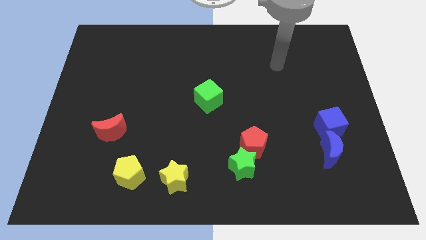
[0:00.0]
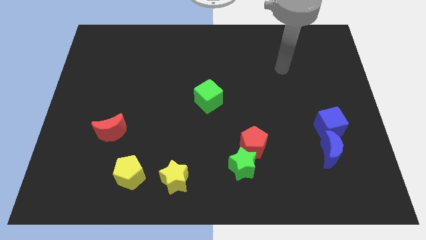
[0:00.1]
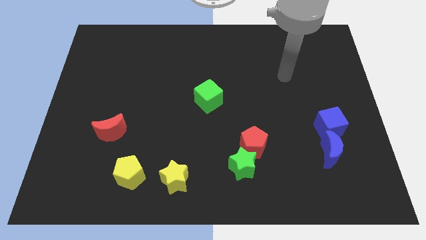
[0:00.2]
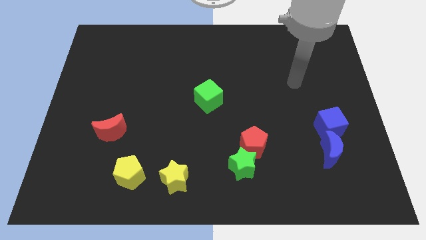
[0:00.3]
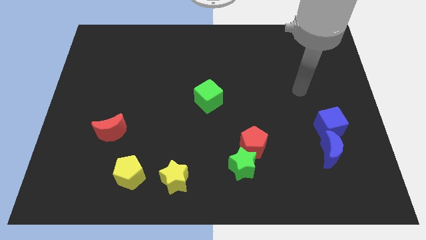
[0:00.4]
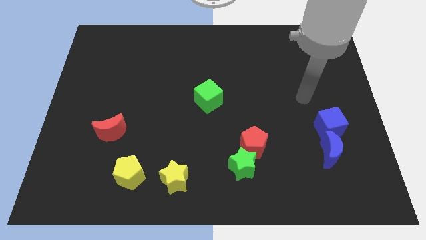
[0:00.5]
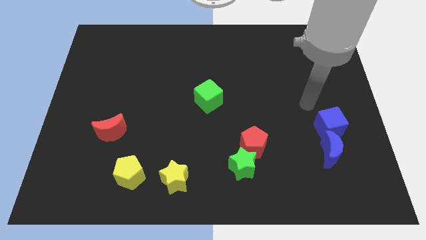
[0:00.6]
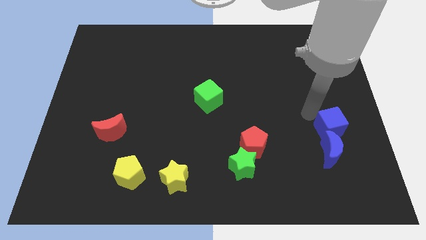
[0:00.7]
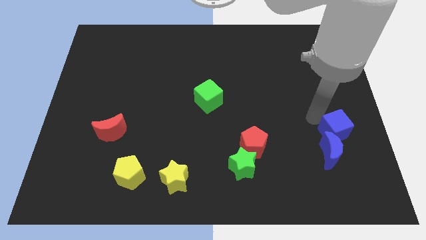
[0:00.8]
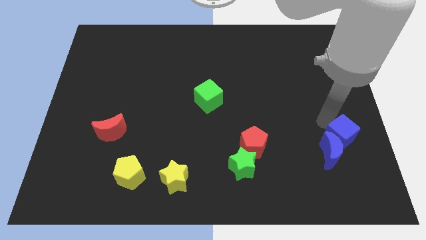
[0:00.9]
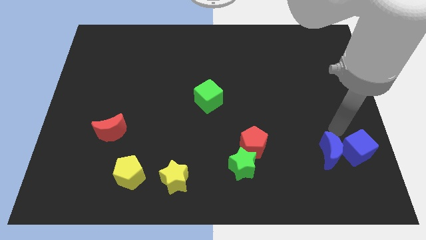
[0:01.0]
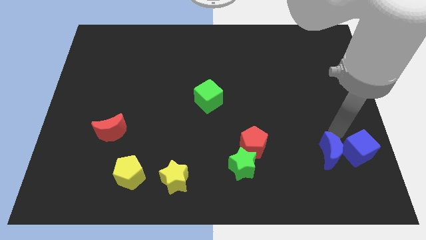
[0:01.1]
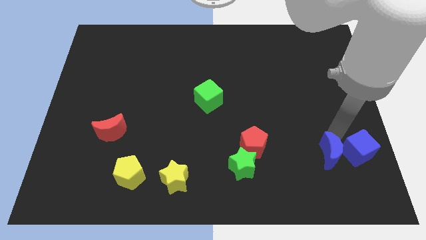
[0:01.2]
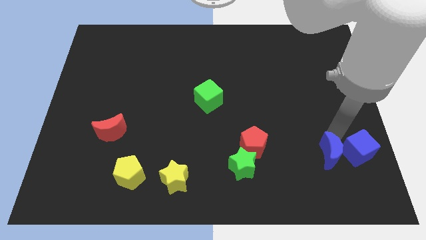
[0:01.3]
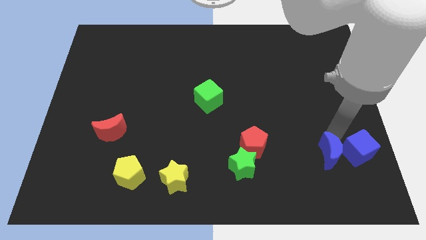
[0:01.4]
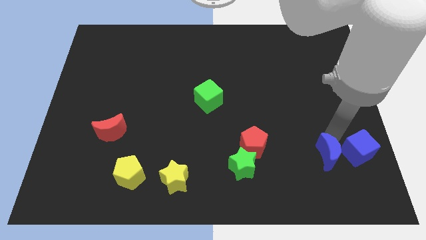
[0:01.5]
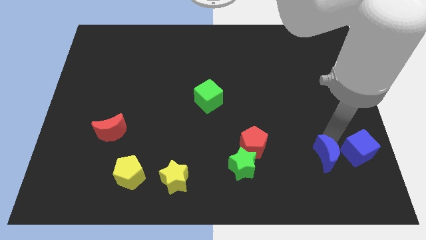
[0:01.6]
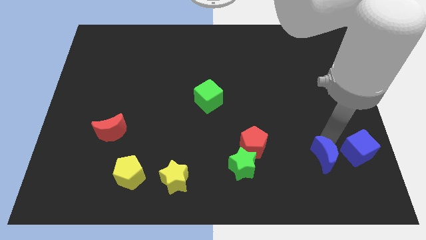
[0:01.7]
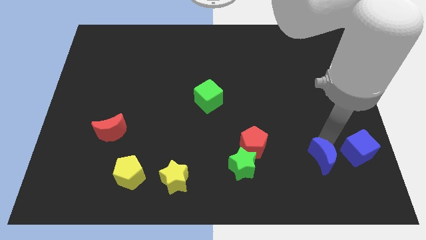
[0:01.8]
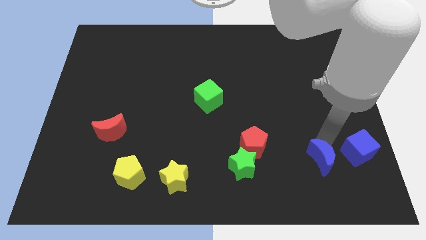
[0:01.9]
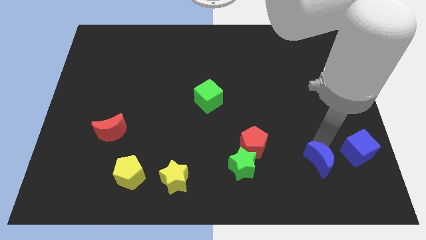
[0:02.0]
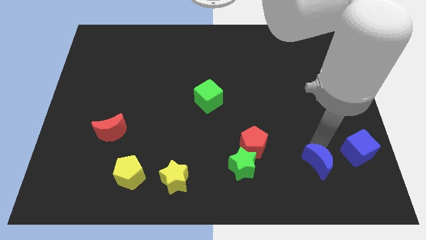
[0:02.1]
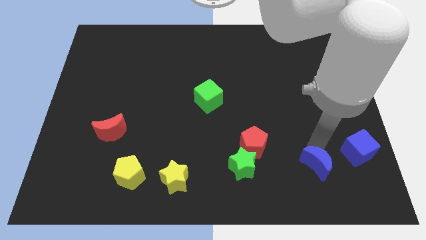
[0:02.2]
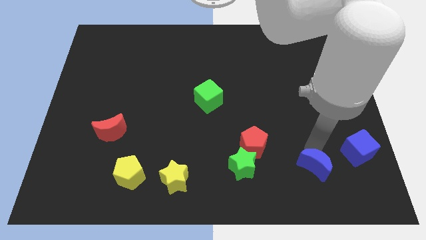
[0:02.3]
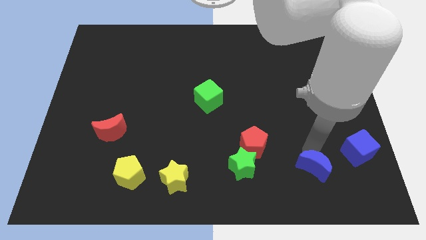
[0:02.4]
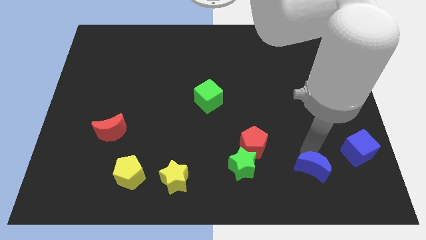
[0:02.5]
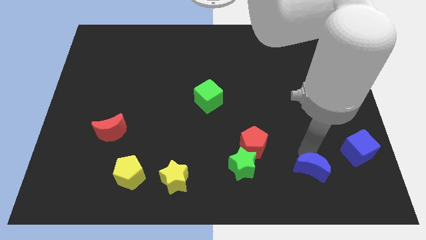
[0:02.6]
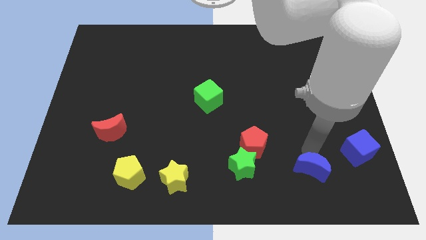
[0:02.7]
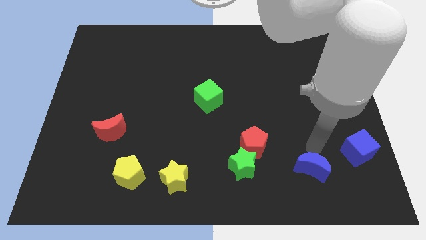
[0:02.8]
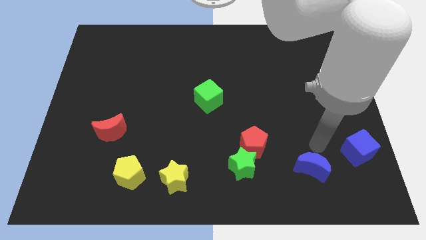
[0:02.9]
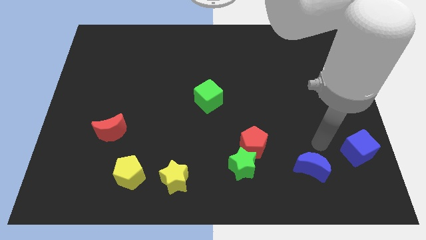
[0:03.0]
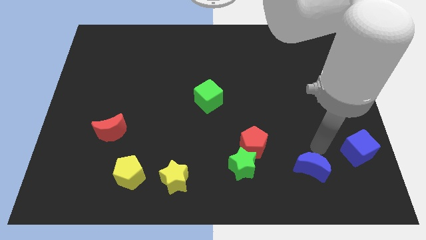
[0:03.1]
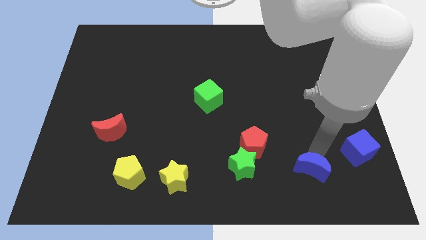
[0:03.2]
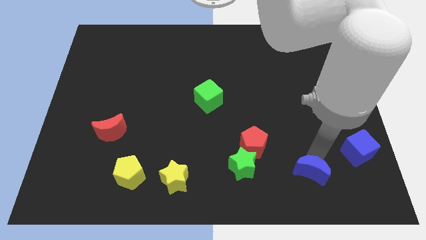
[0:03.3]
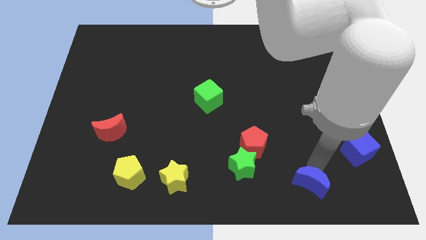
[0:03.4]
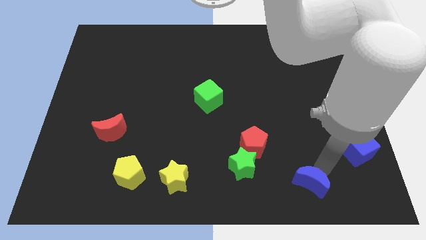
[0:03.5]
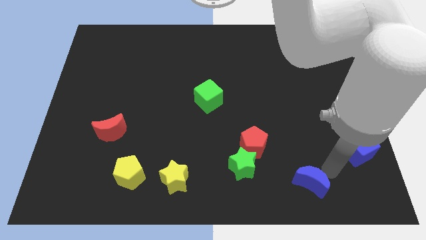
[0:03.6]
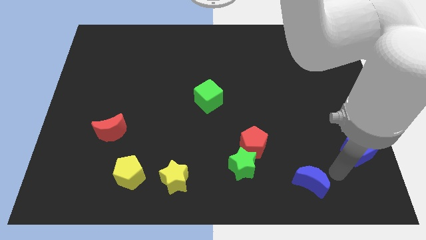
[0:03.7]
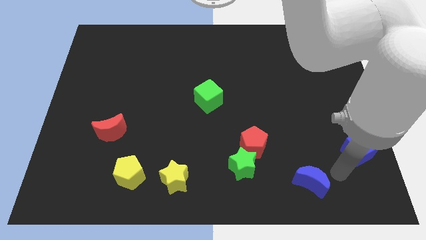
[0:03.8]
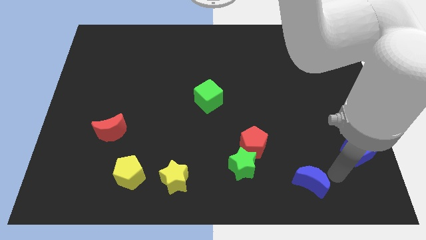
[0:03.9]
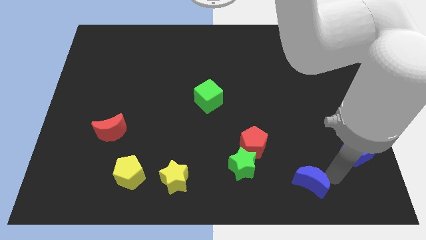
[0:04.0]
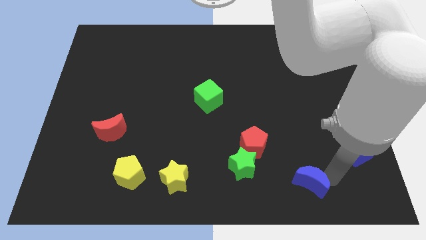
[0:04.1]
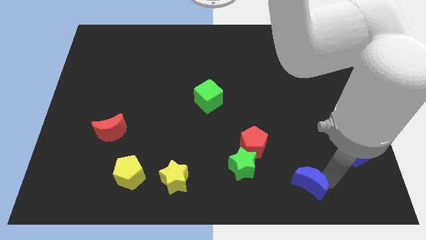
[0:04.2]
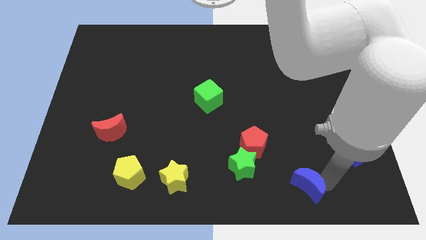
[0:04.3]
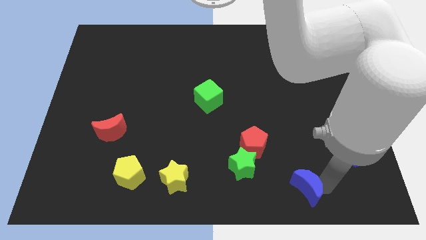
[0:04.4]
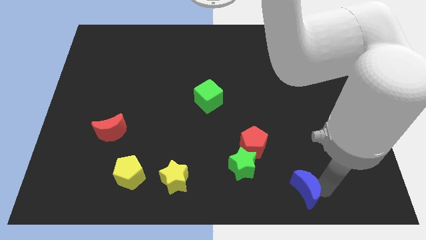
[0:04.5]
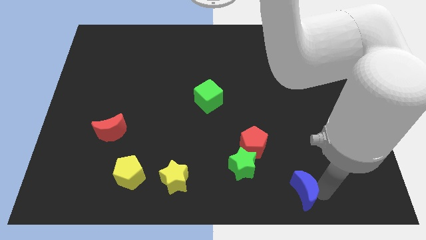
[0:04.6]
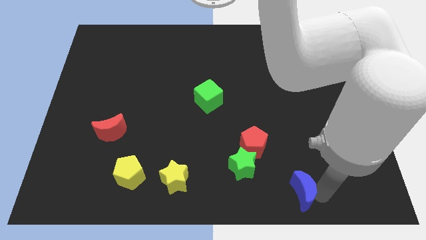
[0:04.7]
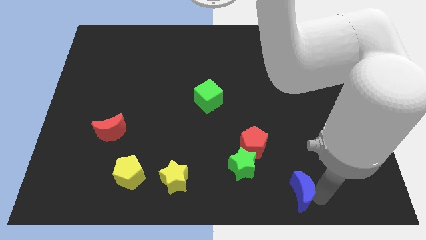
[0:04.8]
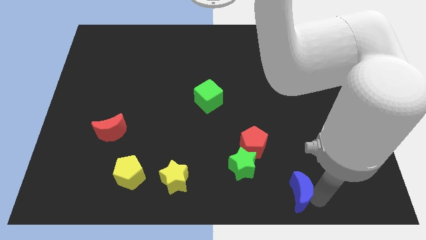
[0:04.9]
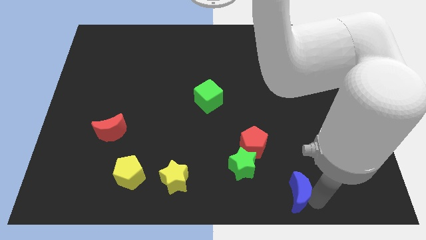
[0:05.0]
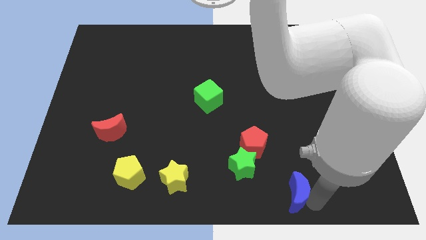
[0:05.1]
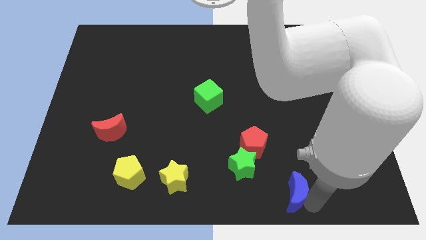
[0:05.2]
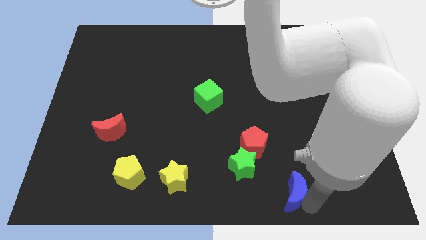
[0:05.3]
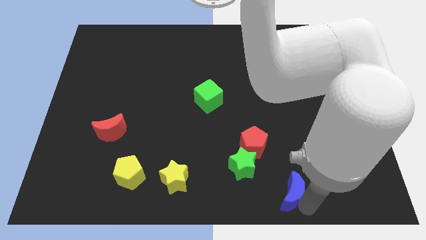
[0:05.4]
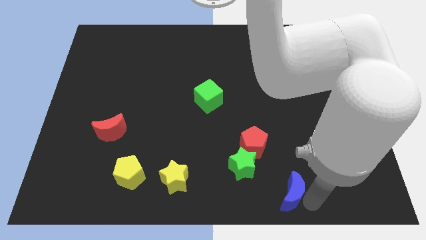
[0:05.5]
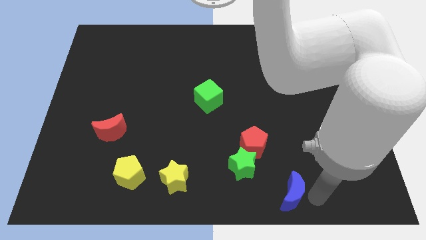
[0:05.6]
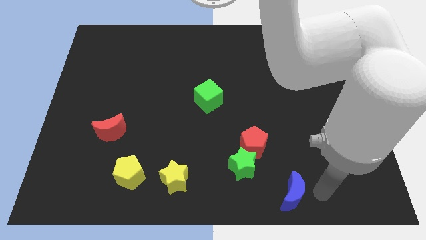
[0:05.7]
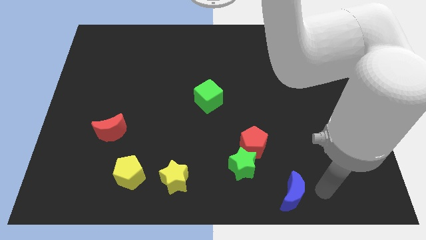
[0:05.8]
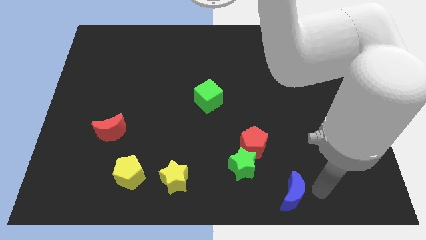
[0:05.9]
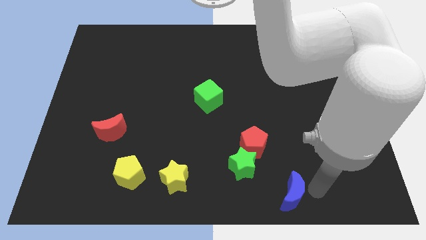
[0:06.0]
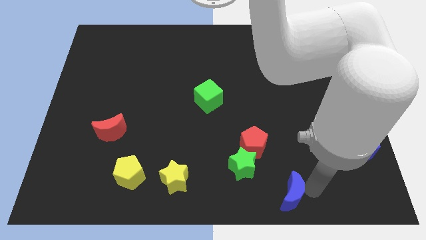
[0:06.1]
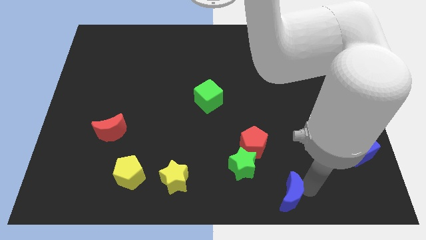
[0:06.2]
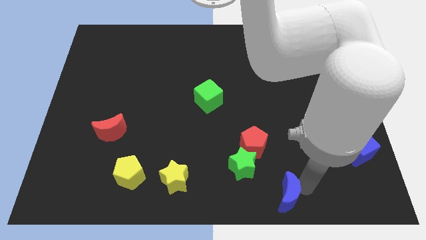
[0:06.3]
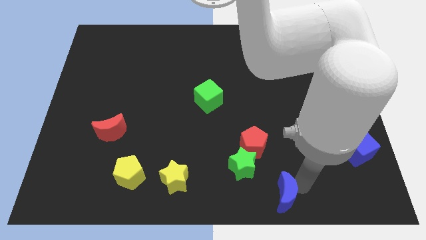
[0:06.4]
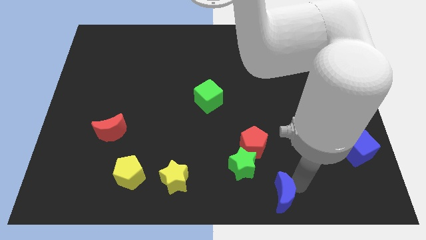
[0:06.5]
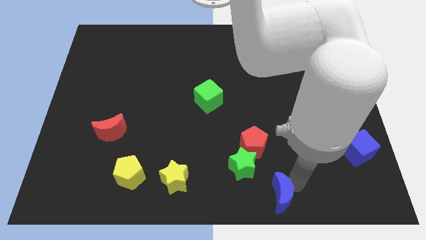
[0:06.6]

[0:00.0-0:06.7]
put the blue moon to the bottom

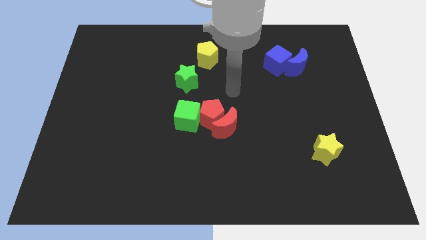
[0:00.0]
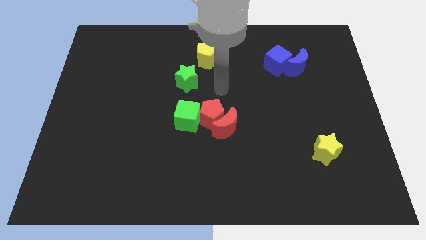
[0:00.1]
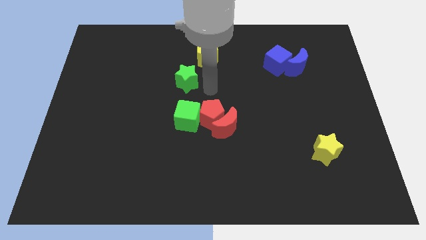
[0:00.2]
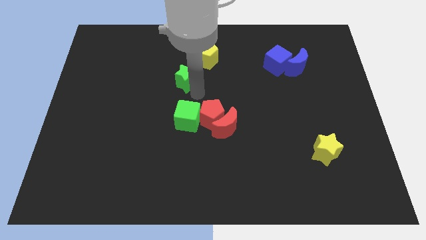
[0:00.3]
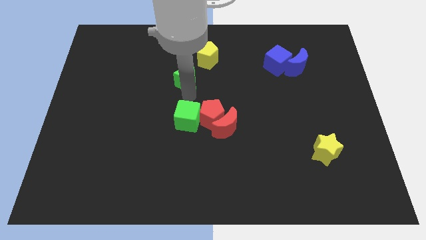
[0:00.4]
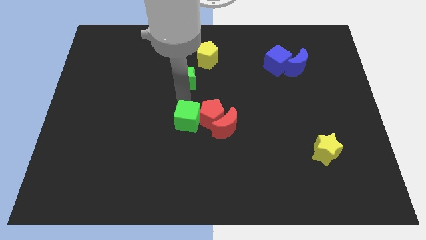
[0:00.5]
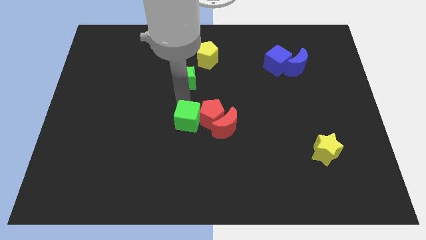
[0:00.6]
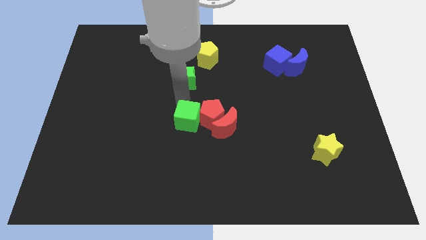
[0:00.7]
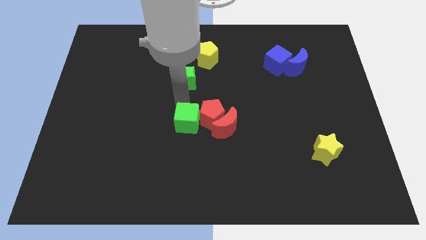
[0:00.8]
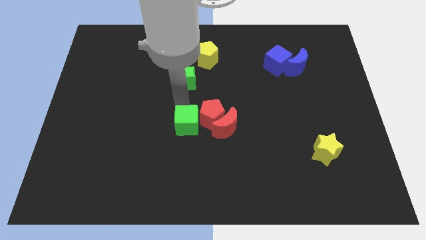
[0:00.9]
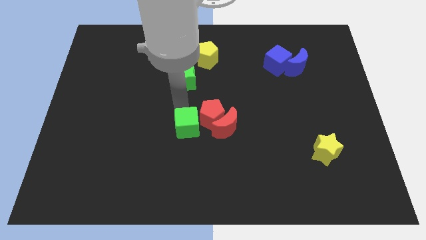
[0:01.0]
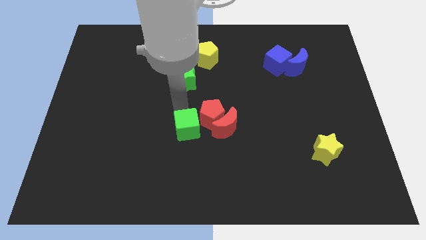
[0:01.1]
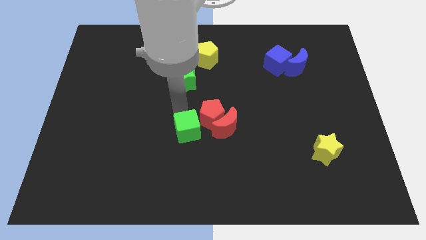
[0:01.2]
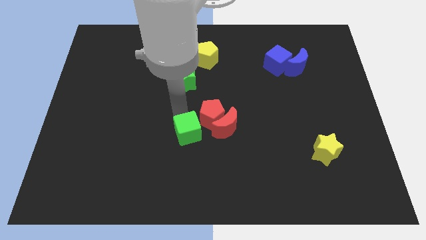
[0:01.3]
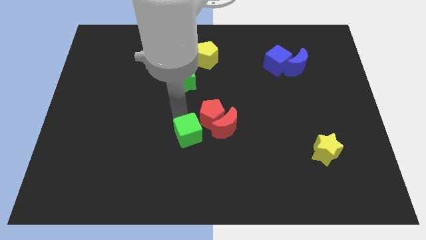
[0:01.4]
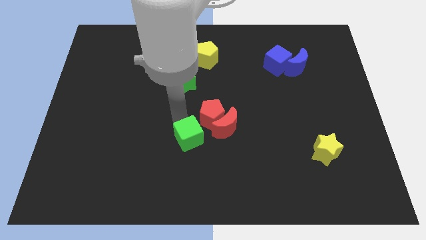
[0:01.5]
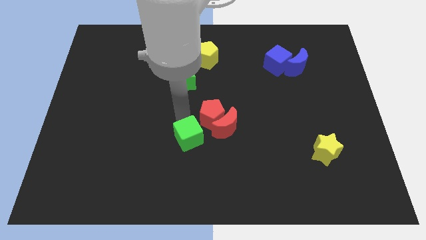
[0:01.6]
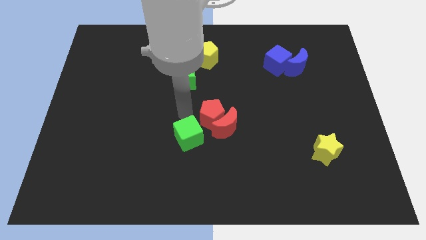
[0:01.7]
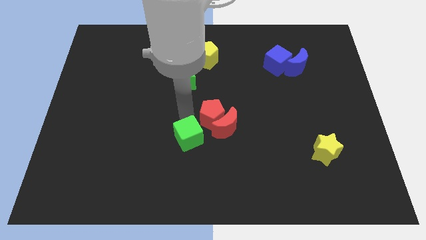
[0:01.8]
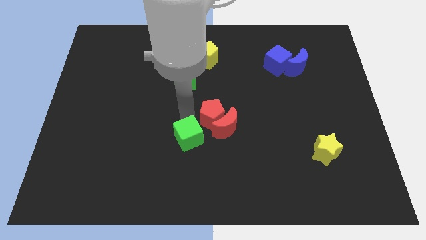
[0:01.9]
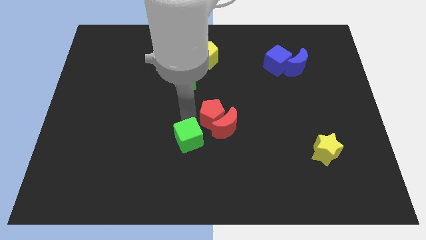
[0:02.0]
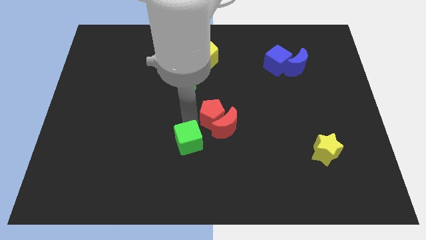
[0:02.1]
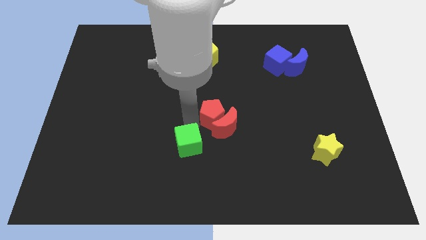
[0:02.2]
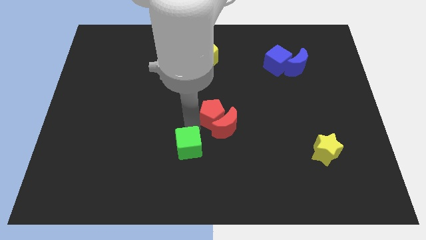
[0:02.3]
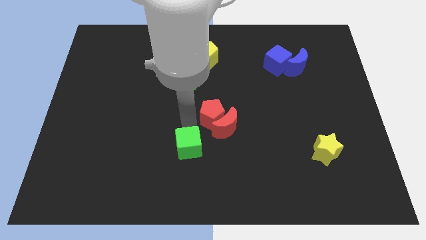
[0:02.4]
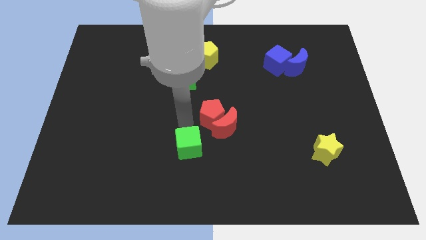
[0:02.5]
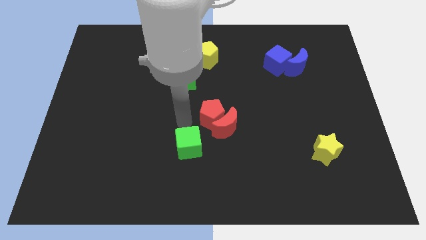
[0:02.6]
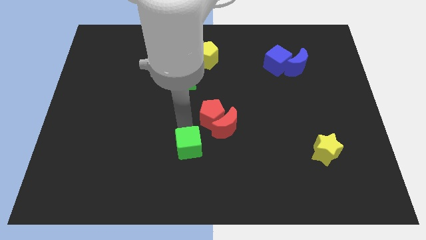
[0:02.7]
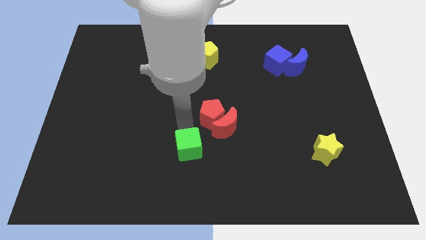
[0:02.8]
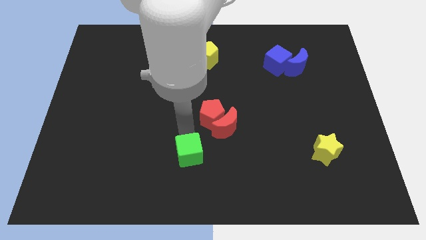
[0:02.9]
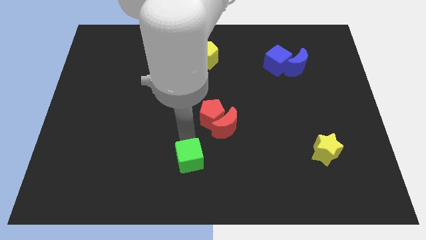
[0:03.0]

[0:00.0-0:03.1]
put the green cube to the bottom
